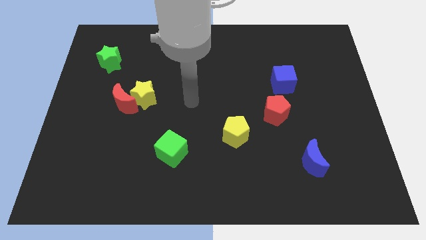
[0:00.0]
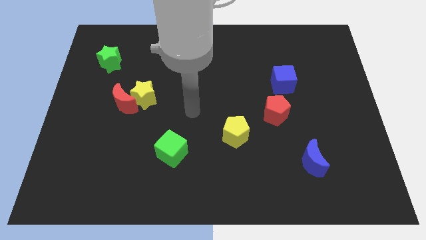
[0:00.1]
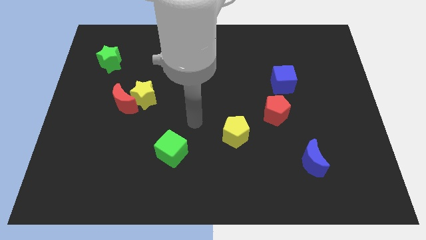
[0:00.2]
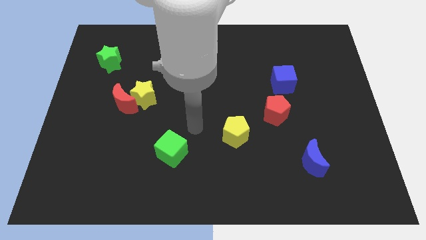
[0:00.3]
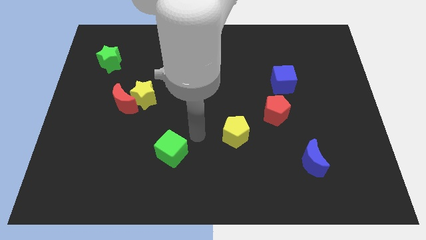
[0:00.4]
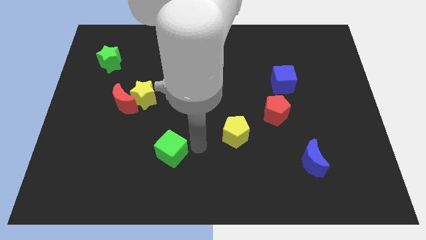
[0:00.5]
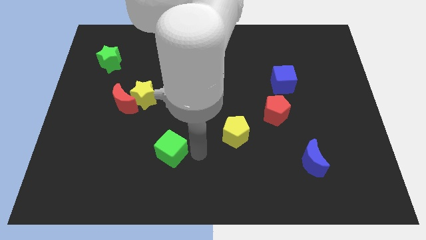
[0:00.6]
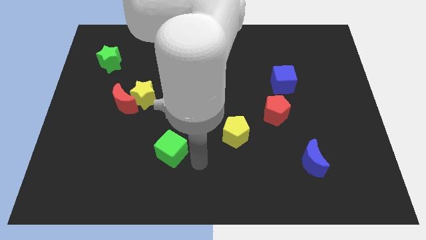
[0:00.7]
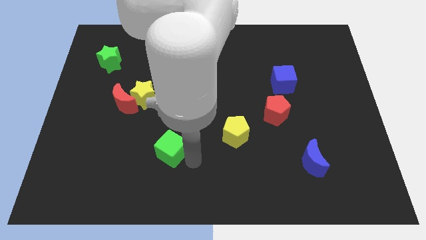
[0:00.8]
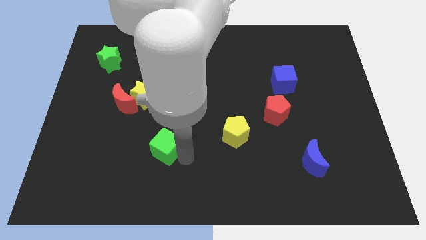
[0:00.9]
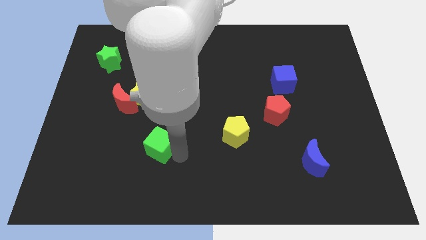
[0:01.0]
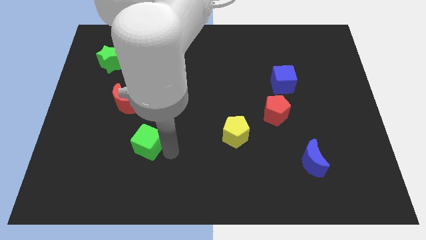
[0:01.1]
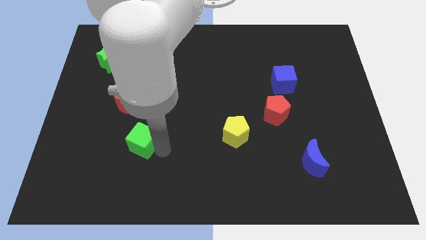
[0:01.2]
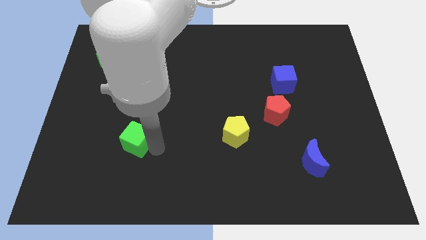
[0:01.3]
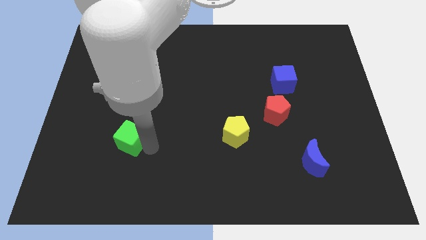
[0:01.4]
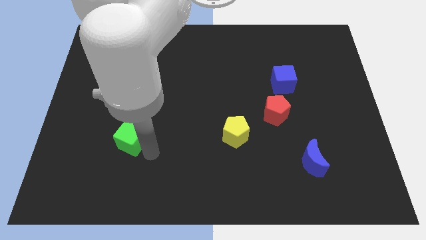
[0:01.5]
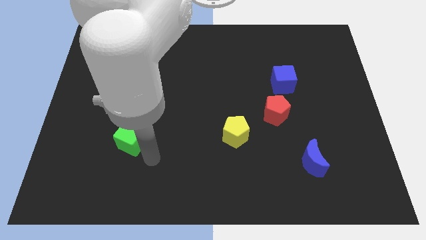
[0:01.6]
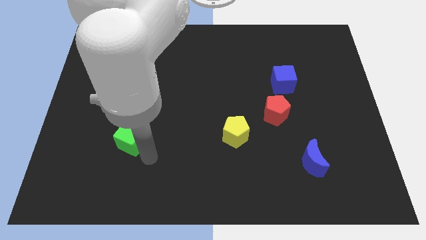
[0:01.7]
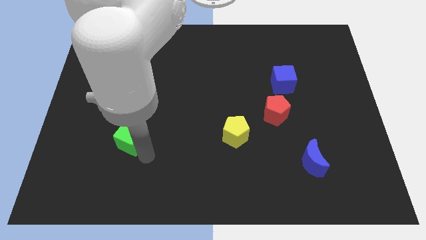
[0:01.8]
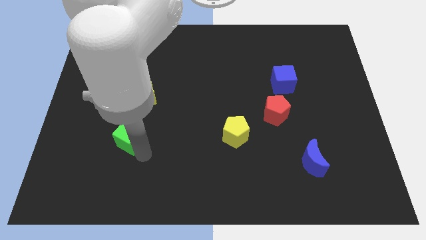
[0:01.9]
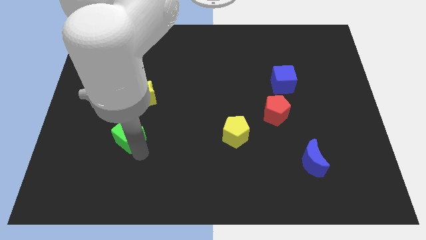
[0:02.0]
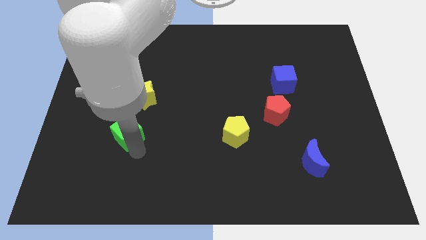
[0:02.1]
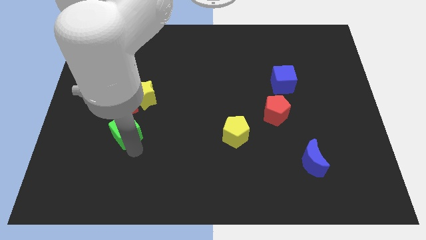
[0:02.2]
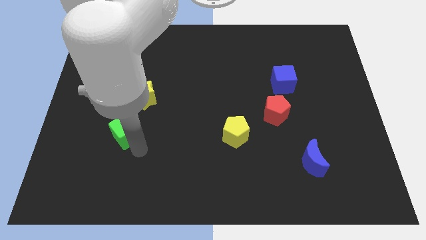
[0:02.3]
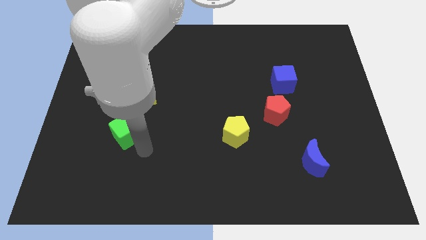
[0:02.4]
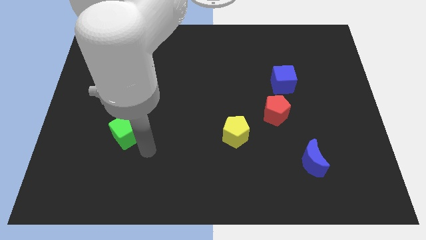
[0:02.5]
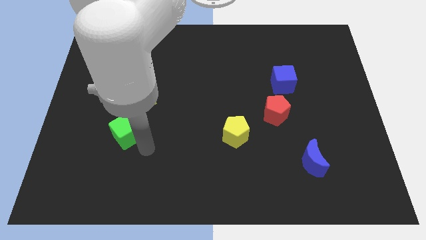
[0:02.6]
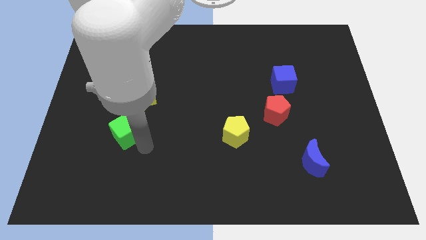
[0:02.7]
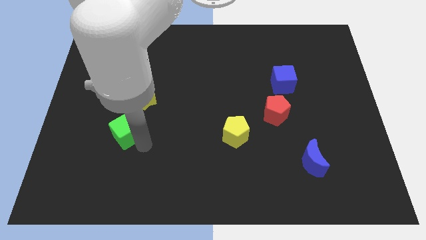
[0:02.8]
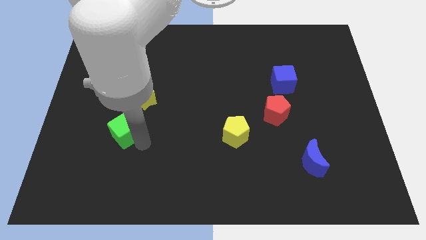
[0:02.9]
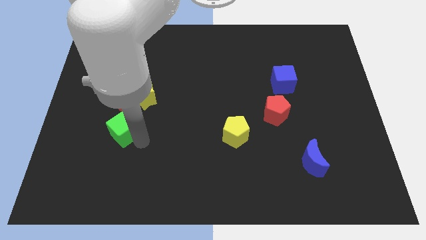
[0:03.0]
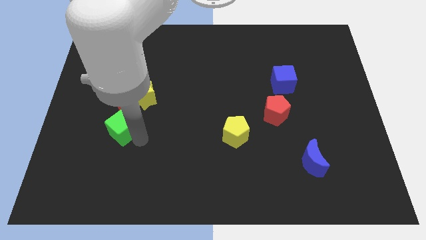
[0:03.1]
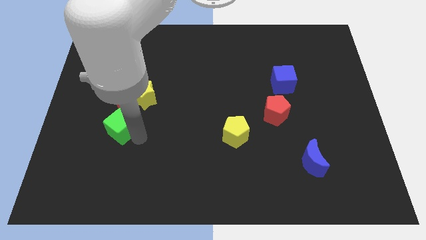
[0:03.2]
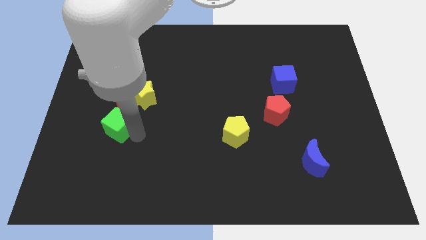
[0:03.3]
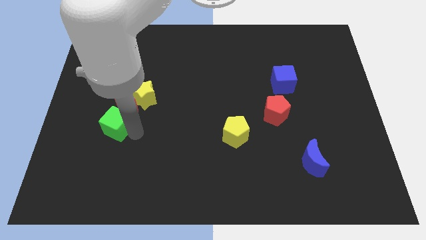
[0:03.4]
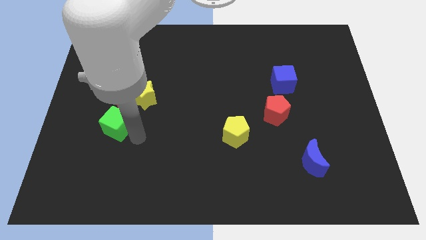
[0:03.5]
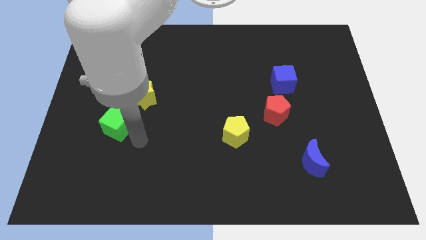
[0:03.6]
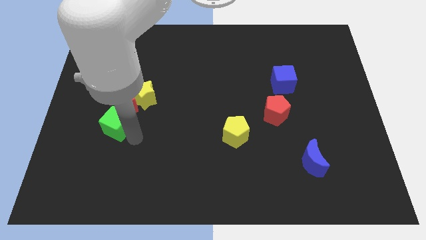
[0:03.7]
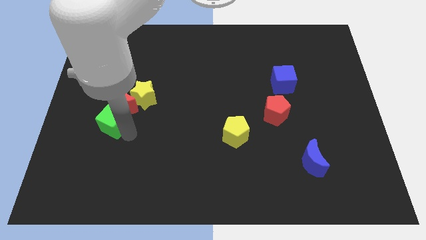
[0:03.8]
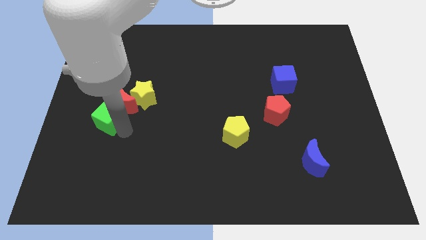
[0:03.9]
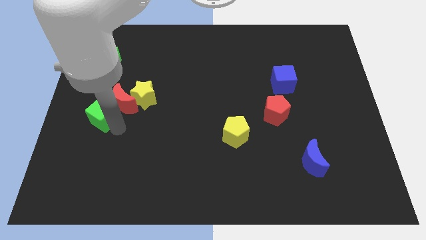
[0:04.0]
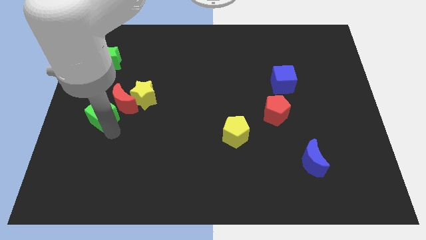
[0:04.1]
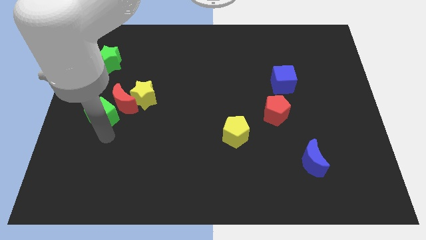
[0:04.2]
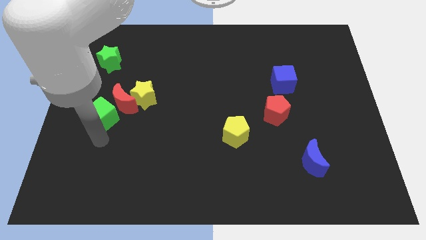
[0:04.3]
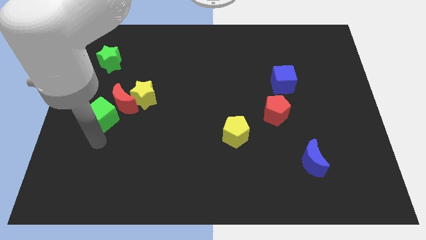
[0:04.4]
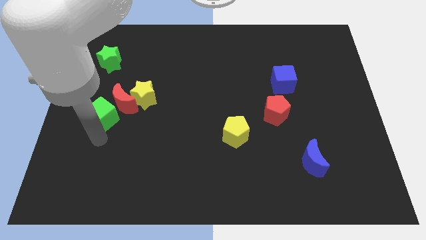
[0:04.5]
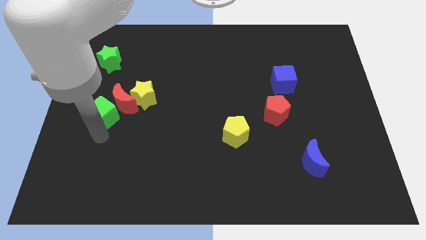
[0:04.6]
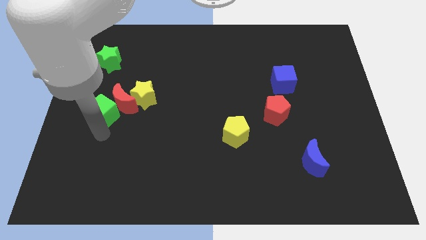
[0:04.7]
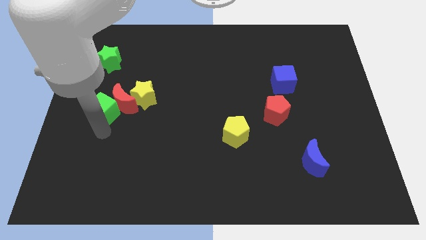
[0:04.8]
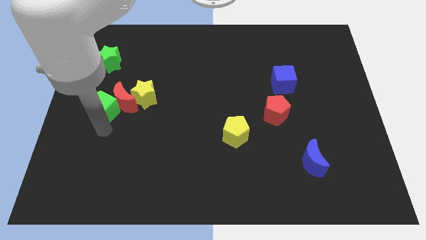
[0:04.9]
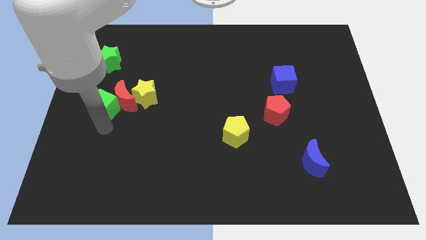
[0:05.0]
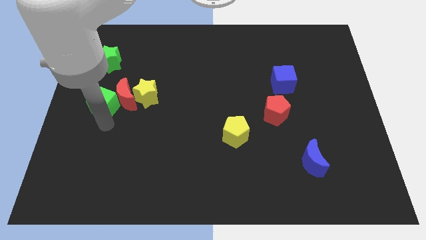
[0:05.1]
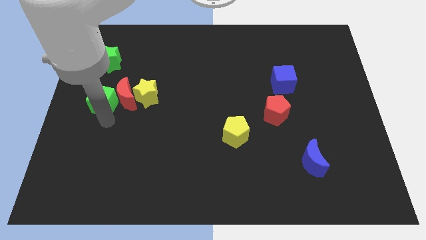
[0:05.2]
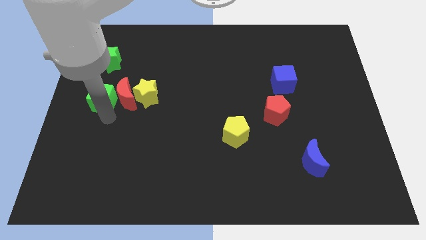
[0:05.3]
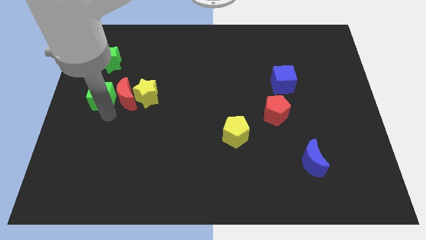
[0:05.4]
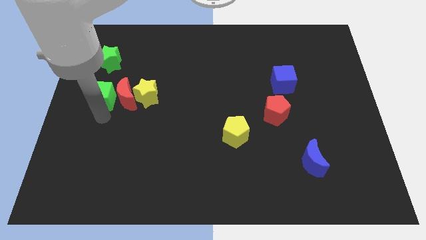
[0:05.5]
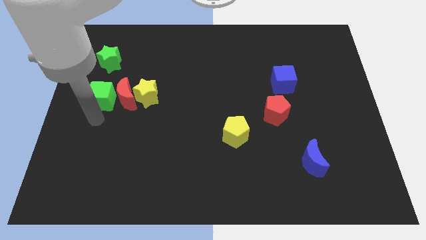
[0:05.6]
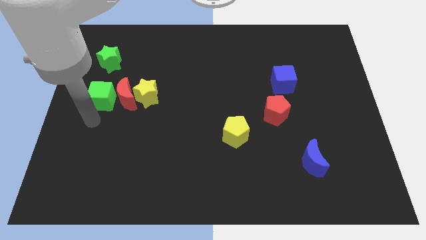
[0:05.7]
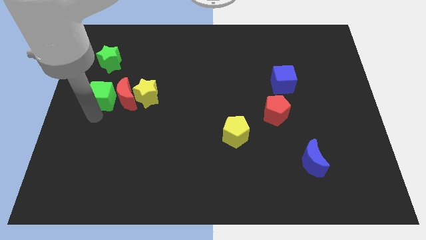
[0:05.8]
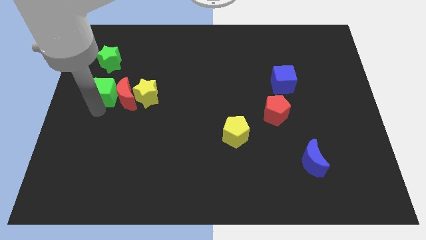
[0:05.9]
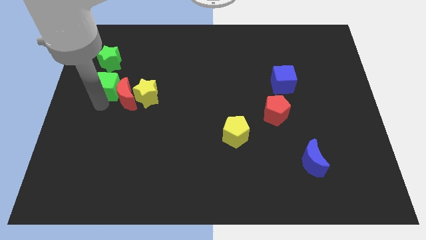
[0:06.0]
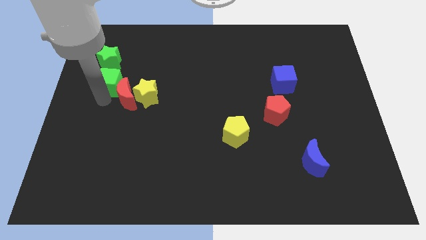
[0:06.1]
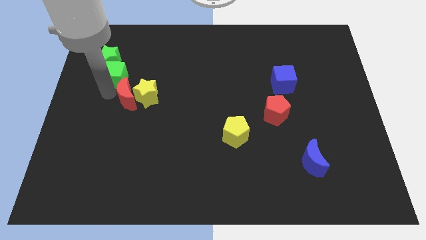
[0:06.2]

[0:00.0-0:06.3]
move the green cube towards the green star

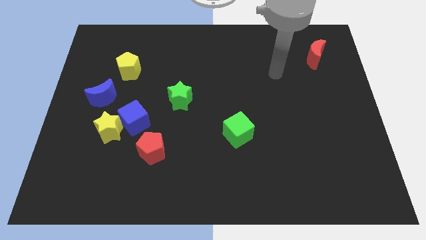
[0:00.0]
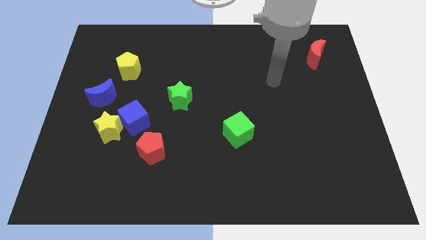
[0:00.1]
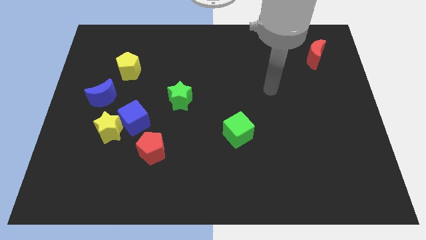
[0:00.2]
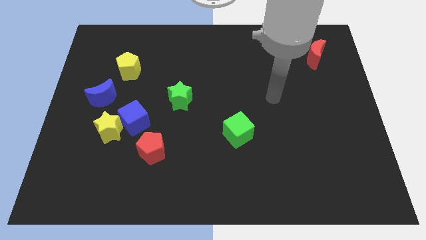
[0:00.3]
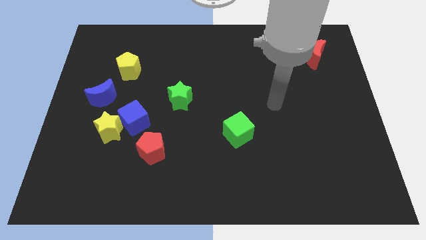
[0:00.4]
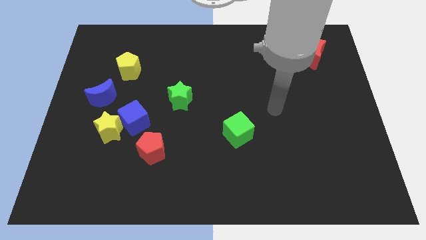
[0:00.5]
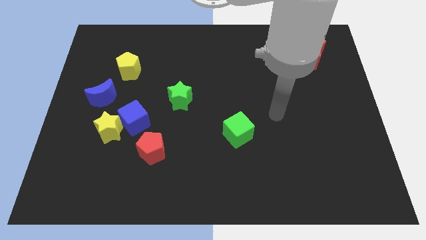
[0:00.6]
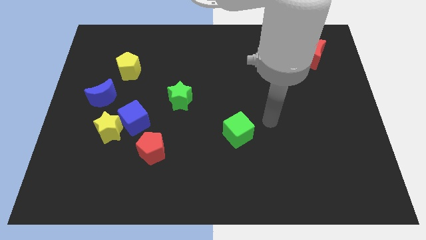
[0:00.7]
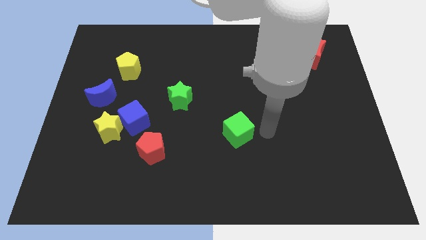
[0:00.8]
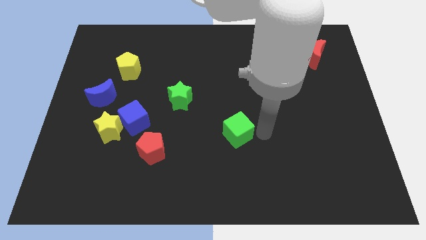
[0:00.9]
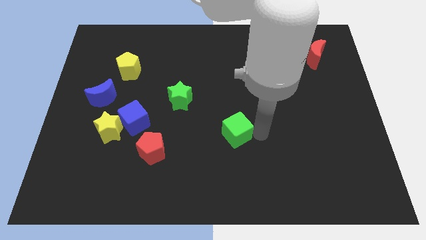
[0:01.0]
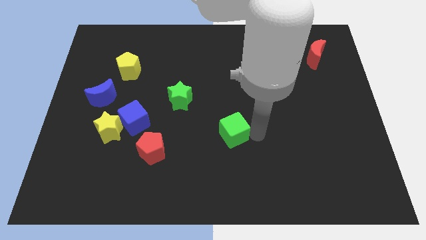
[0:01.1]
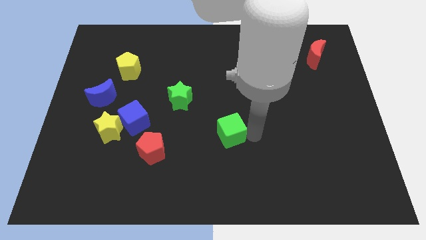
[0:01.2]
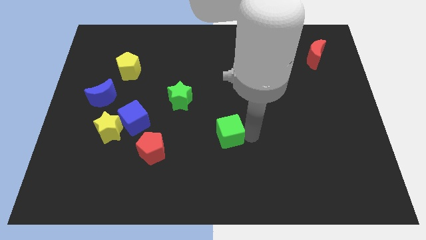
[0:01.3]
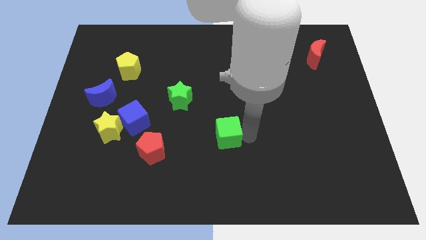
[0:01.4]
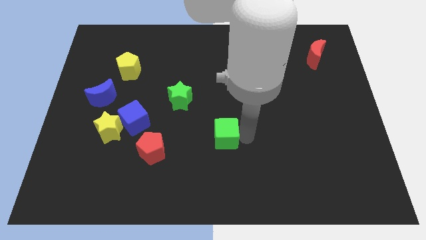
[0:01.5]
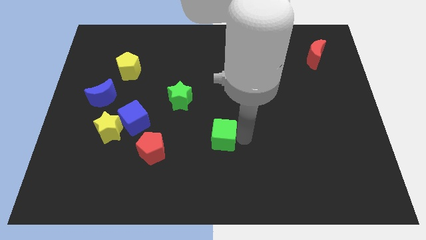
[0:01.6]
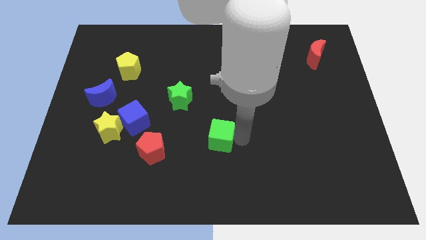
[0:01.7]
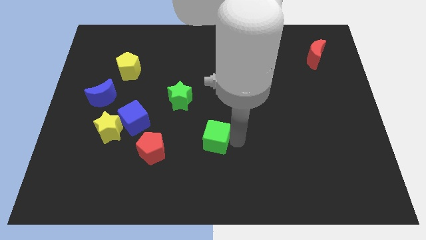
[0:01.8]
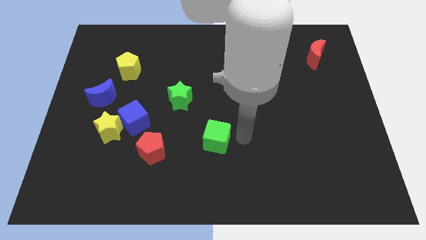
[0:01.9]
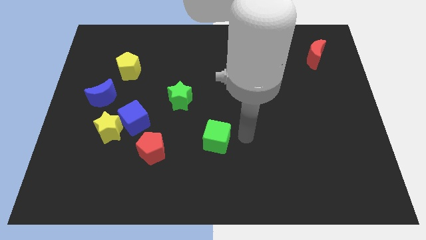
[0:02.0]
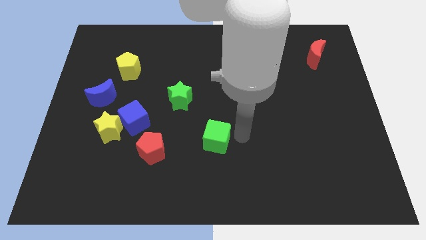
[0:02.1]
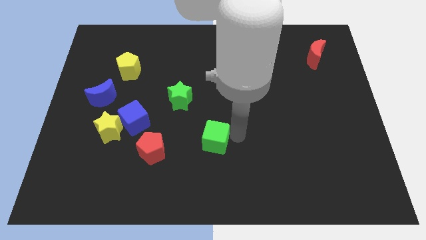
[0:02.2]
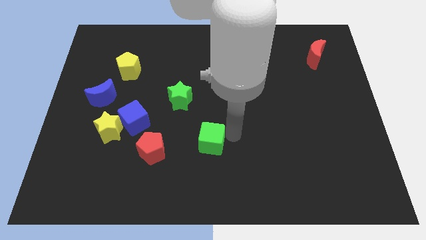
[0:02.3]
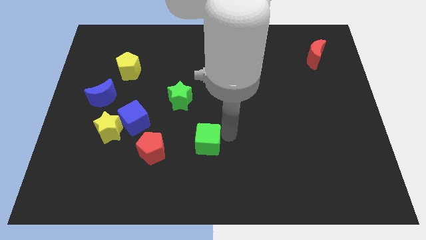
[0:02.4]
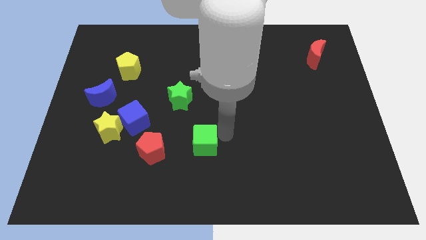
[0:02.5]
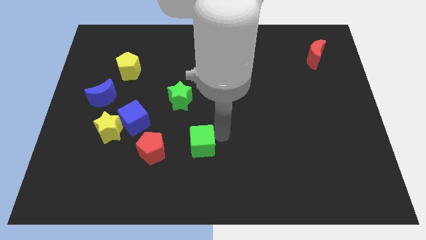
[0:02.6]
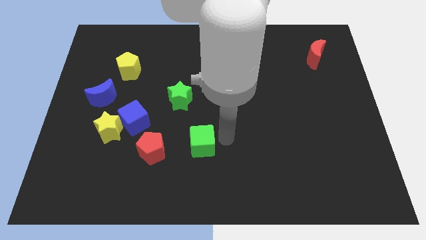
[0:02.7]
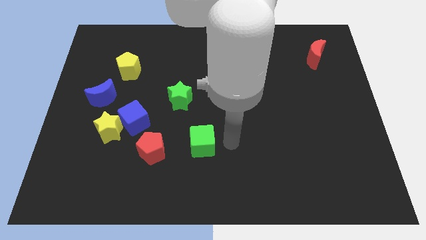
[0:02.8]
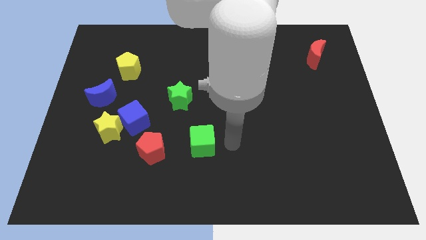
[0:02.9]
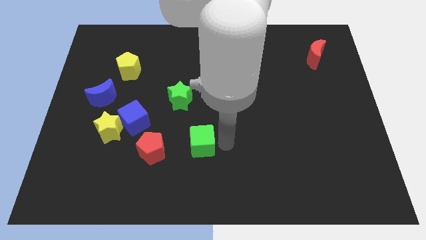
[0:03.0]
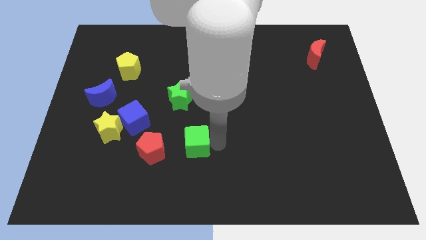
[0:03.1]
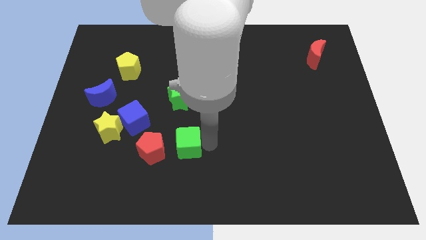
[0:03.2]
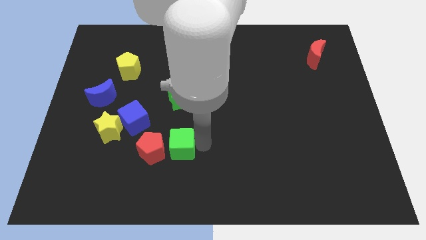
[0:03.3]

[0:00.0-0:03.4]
put the green cube next to the red pentagon
